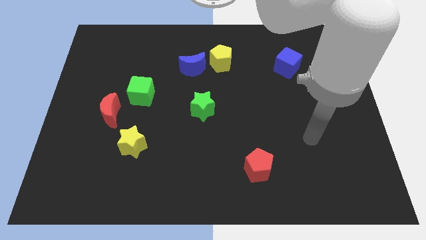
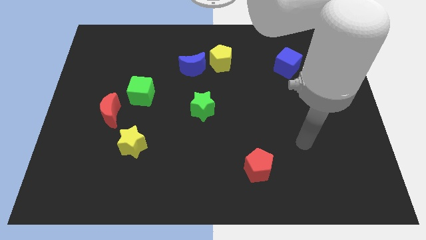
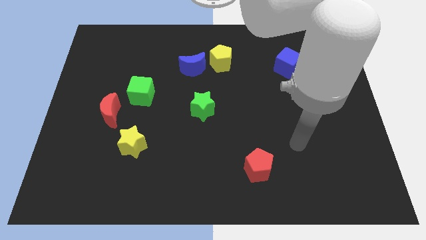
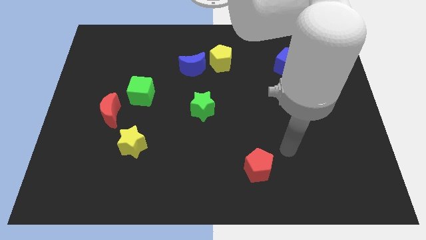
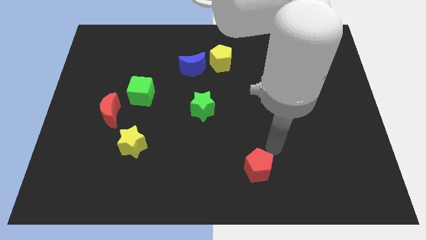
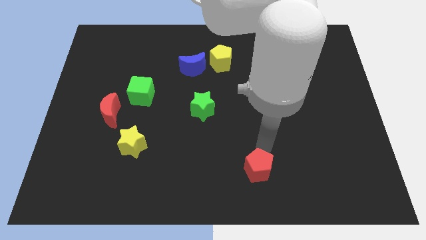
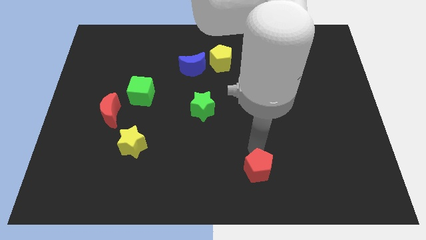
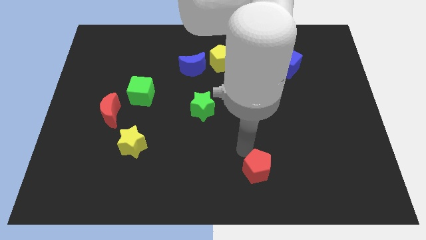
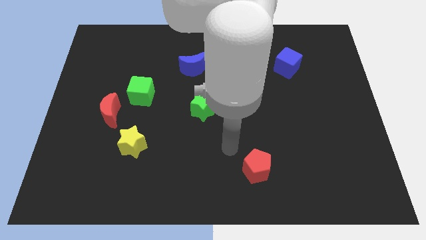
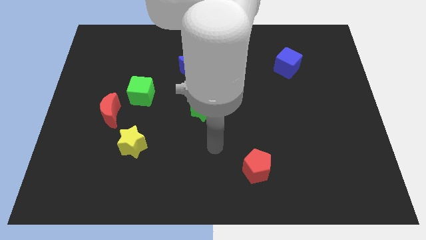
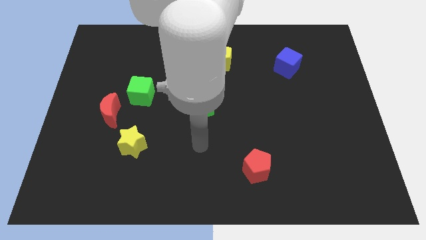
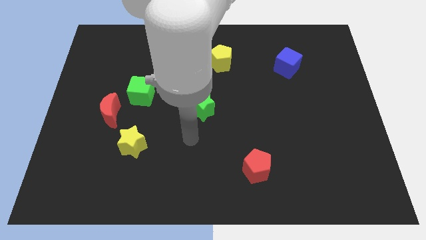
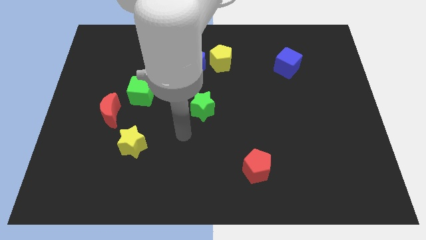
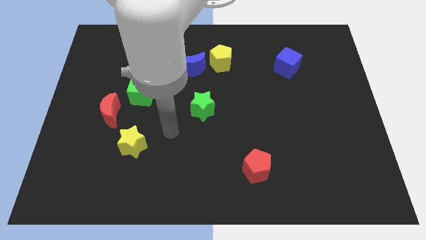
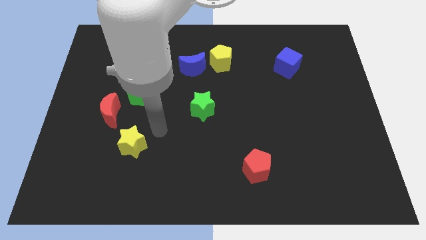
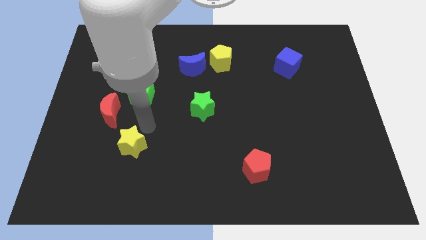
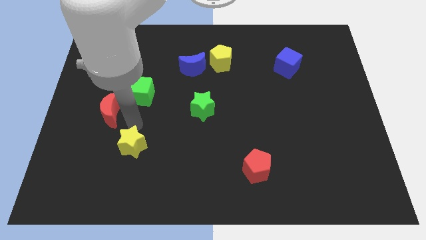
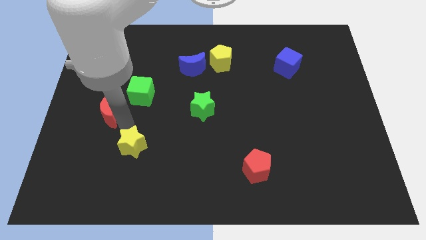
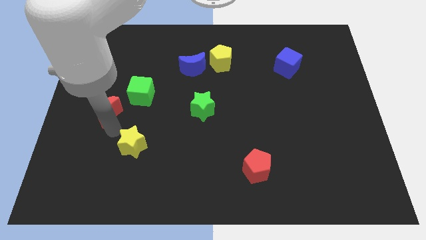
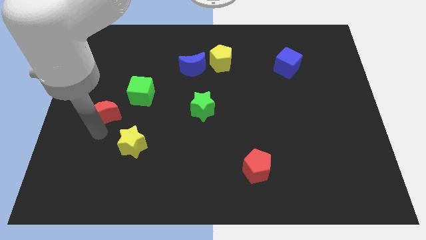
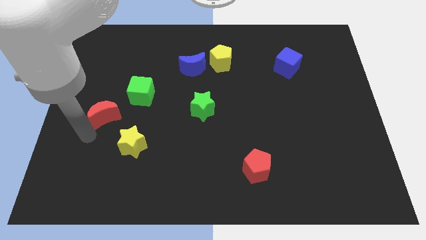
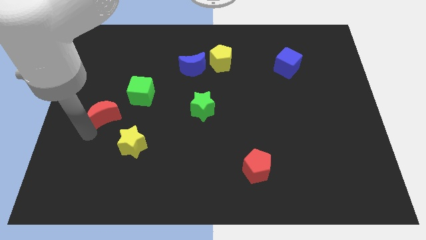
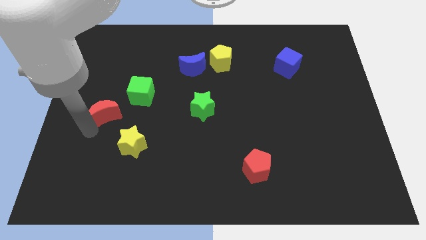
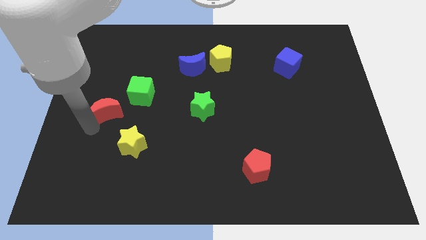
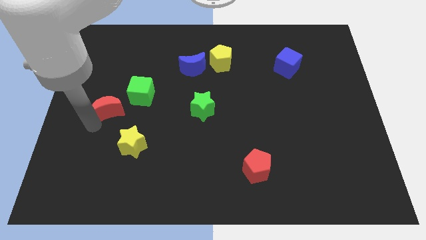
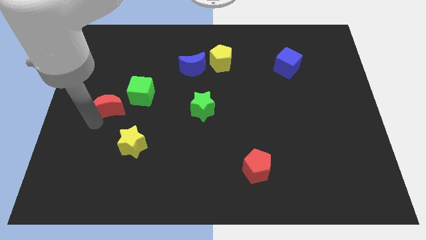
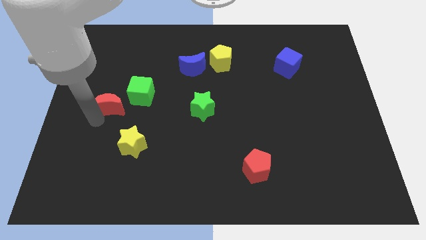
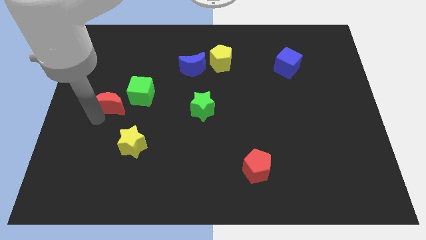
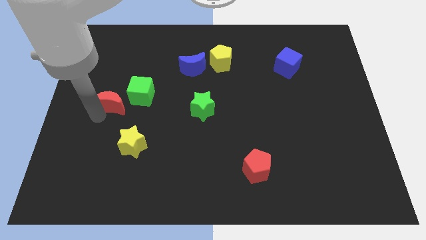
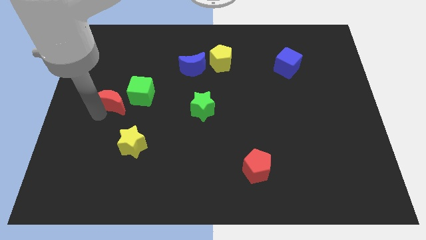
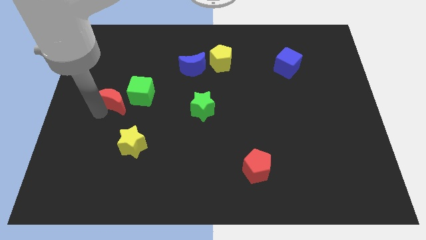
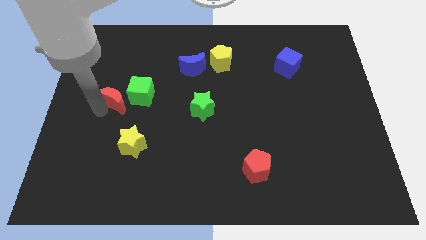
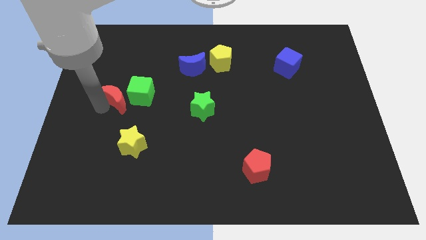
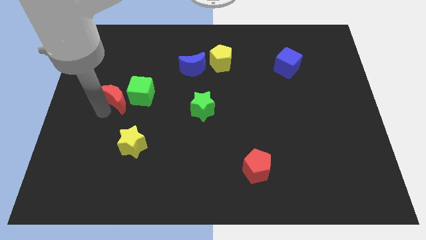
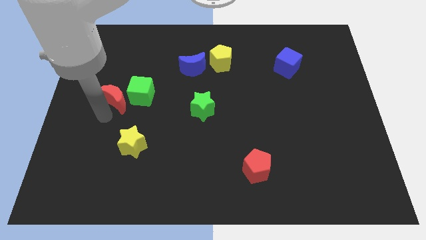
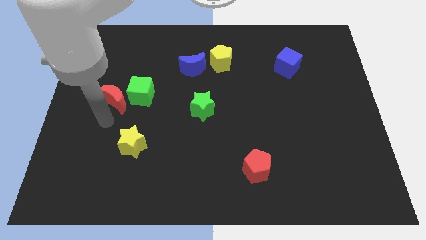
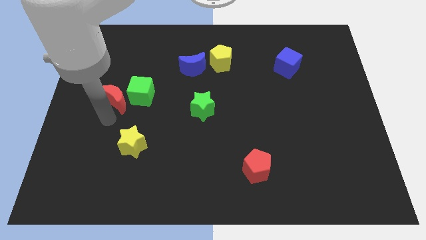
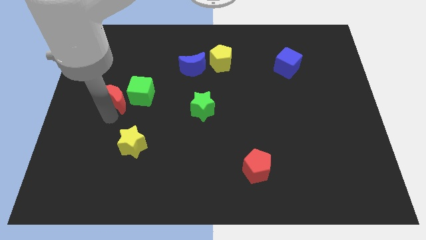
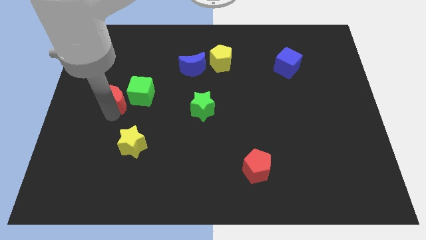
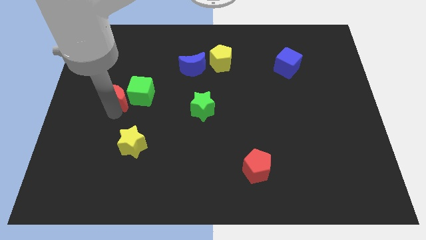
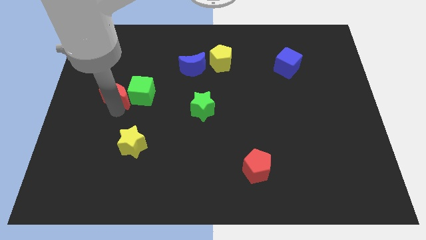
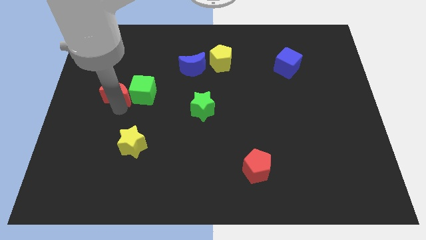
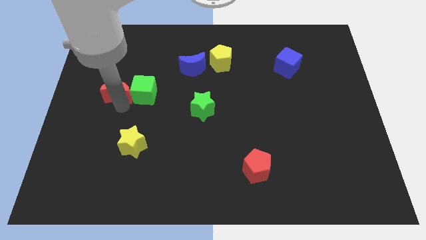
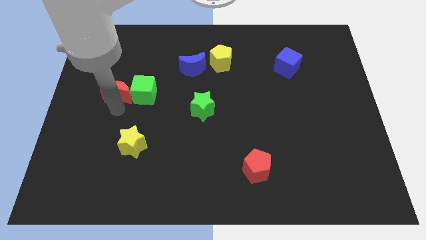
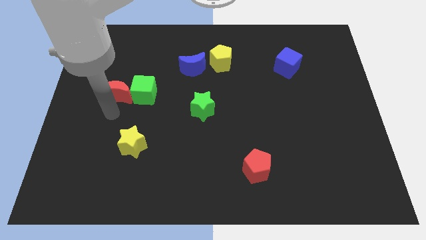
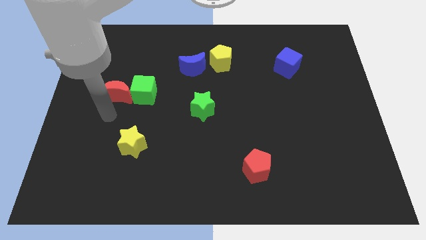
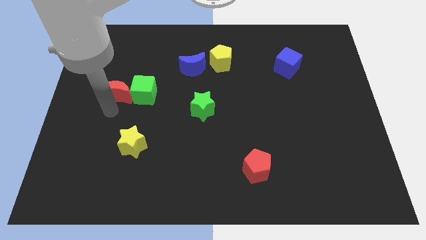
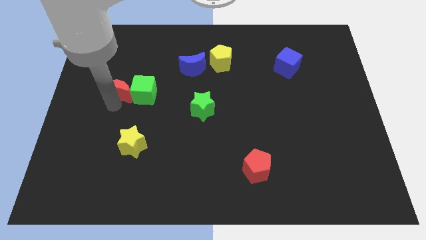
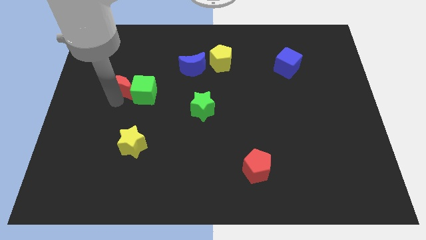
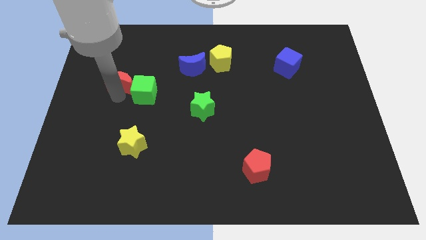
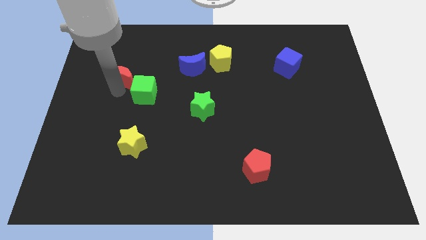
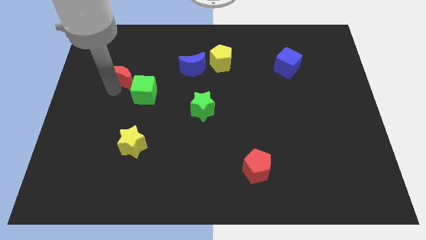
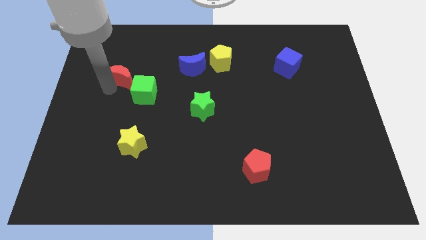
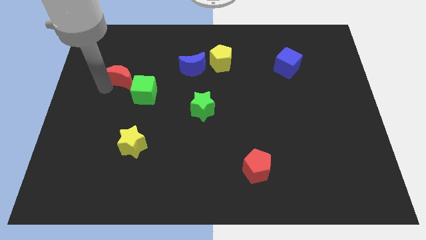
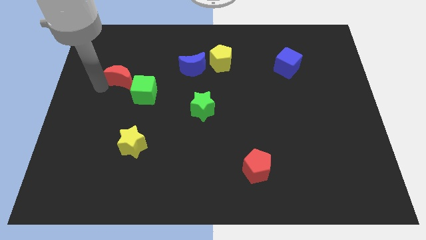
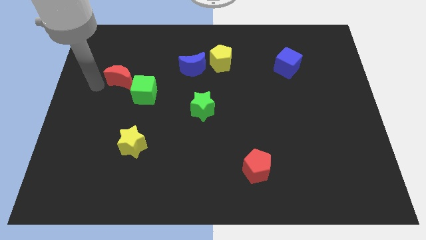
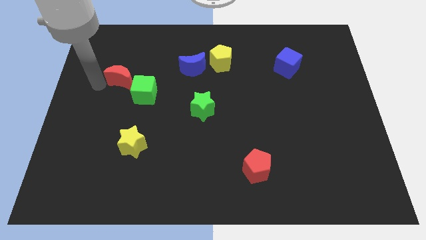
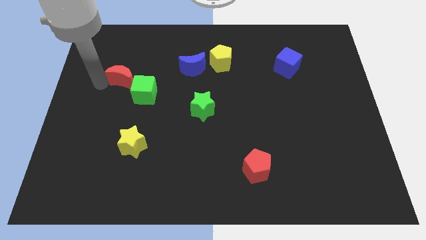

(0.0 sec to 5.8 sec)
move the red moon a little upwards and to the right diagonally

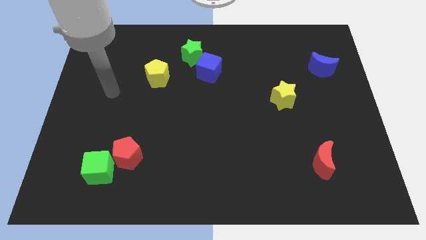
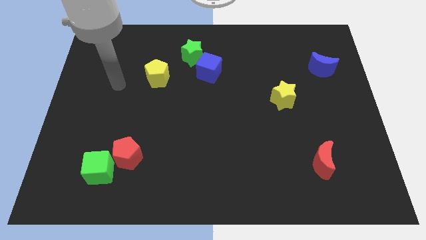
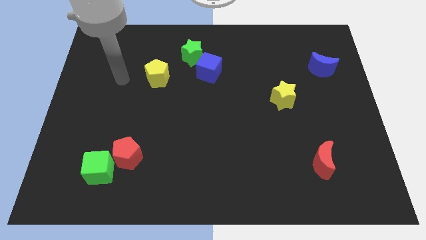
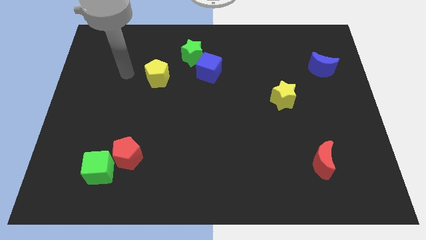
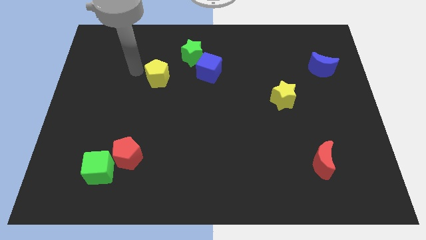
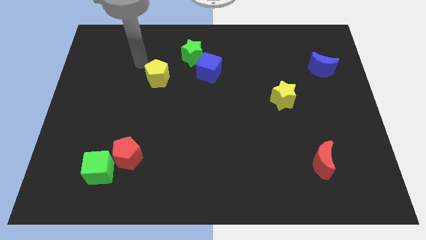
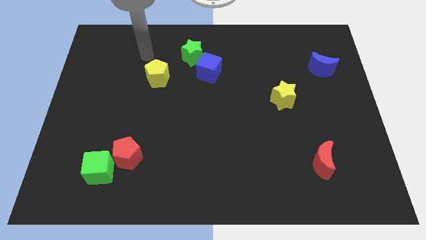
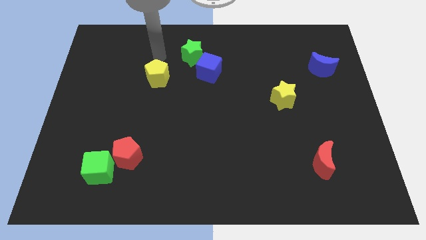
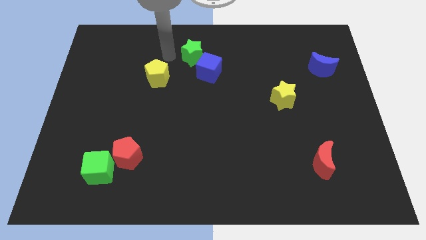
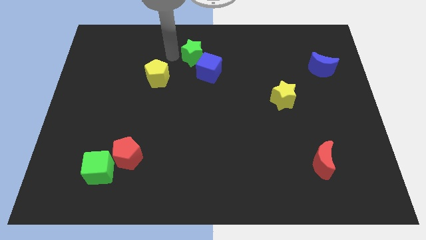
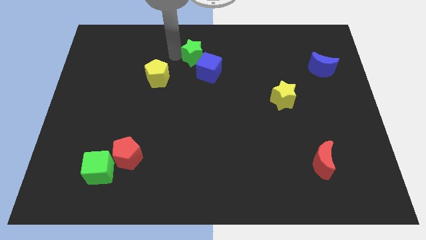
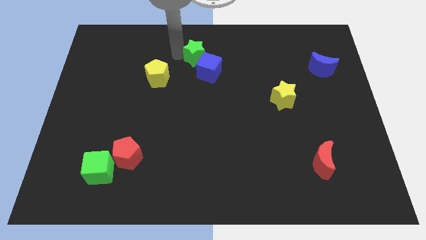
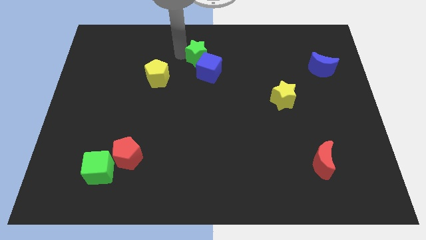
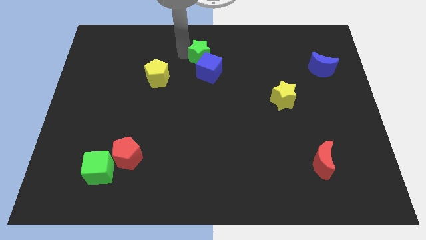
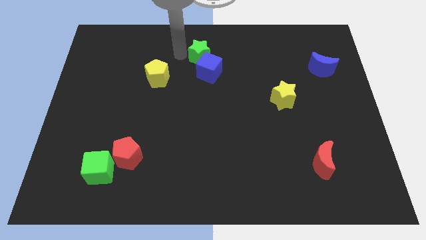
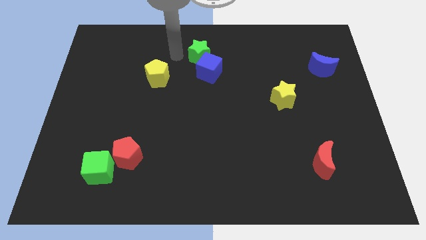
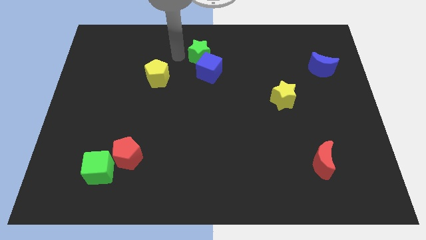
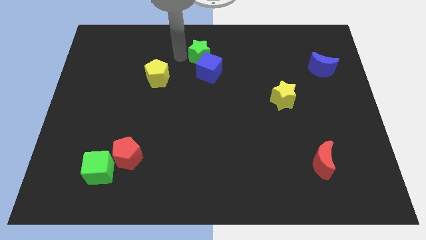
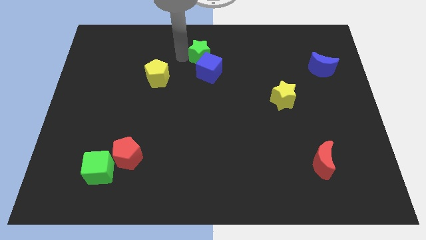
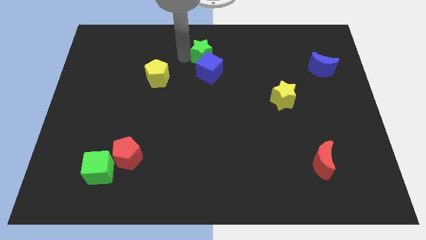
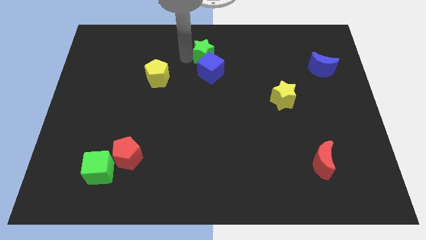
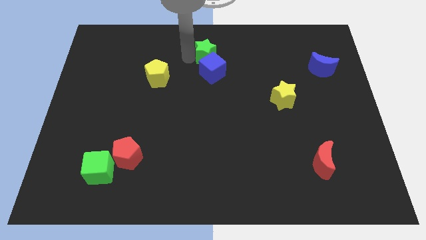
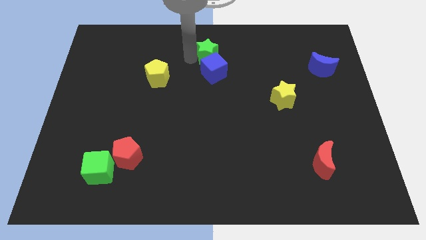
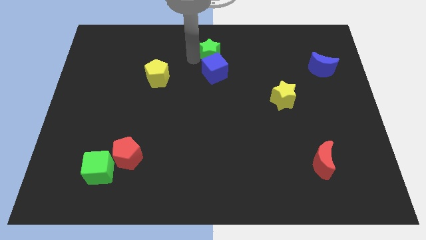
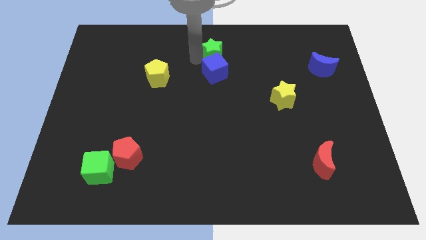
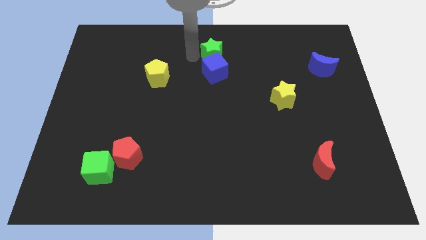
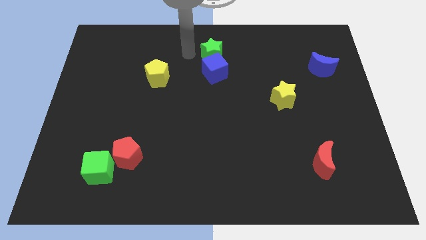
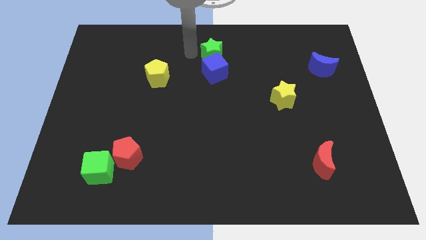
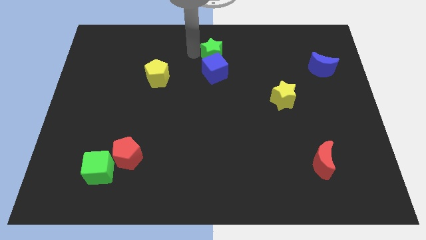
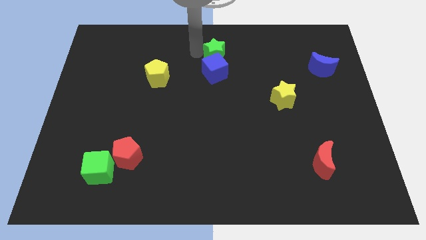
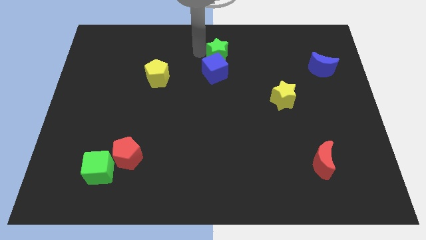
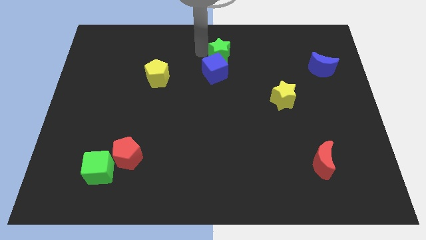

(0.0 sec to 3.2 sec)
slightly push the green star to the right
